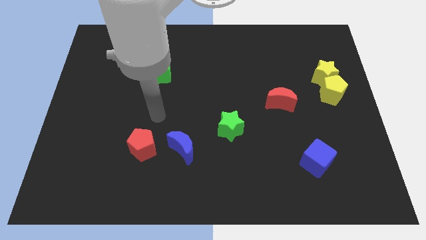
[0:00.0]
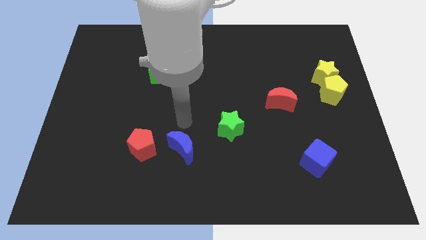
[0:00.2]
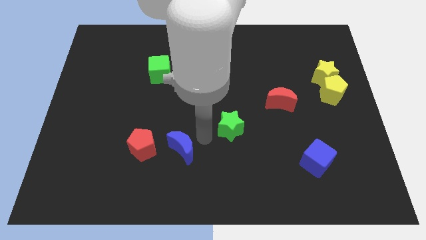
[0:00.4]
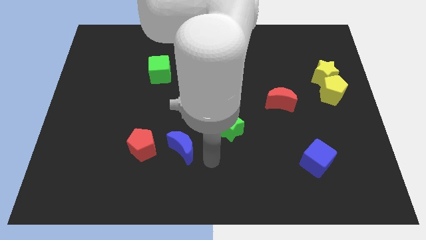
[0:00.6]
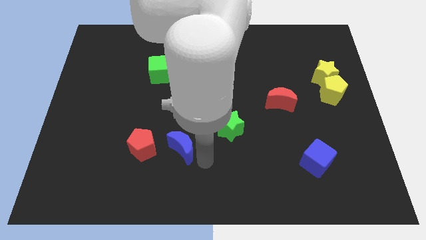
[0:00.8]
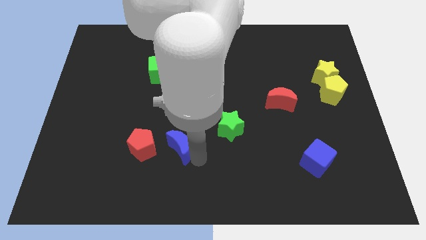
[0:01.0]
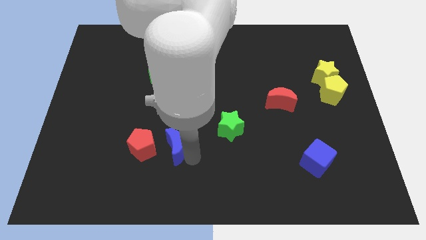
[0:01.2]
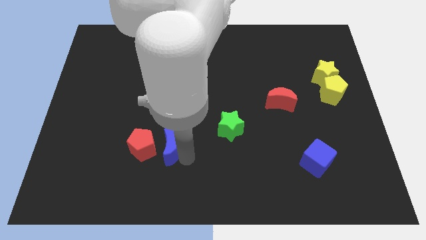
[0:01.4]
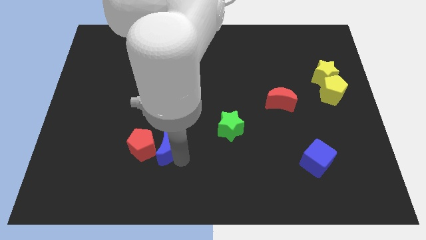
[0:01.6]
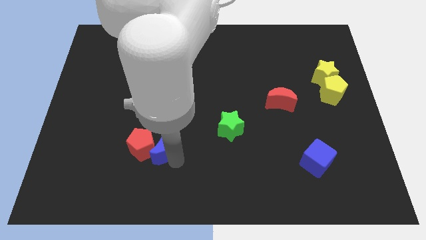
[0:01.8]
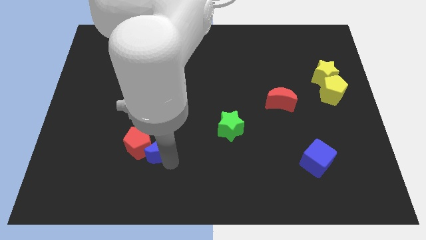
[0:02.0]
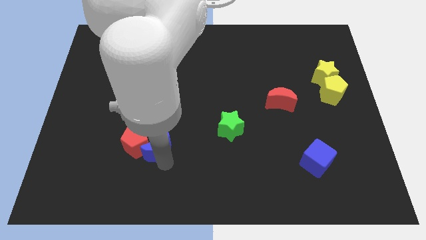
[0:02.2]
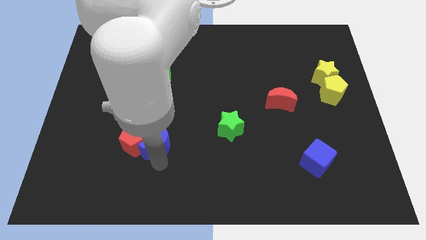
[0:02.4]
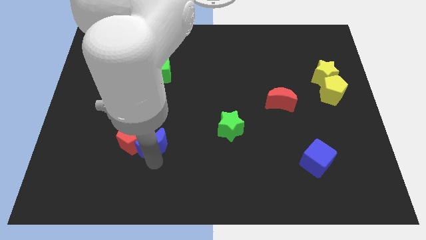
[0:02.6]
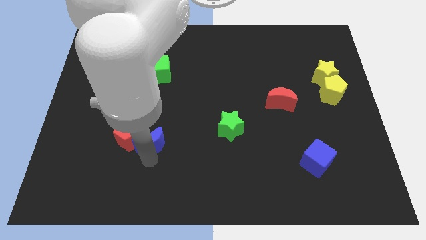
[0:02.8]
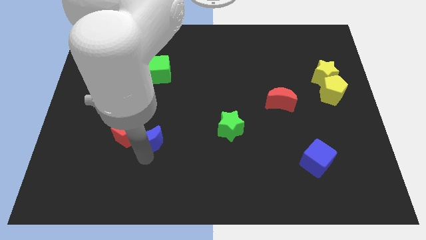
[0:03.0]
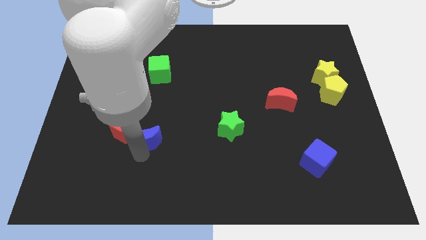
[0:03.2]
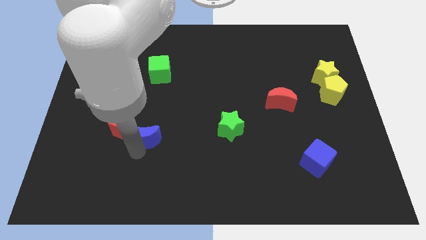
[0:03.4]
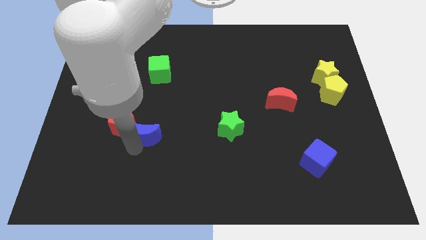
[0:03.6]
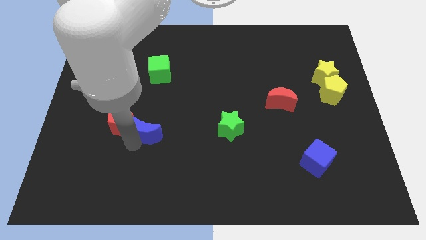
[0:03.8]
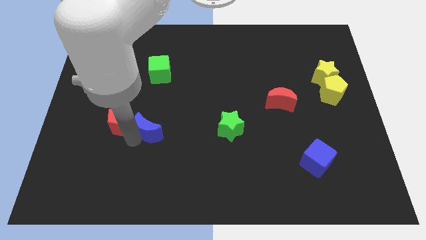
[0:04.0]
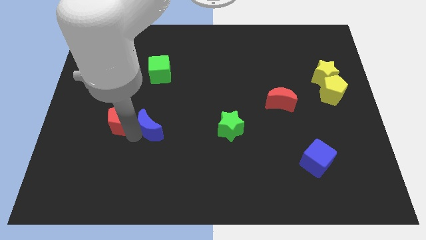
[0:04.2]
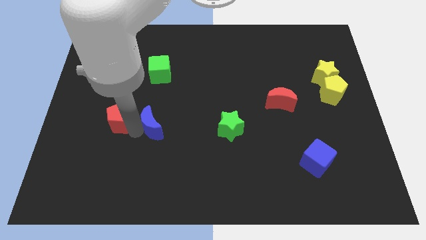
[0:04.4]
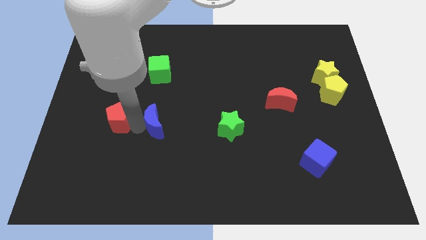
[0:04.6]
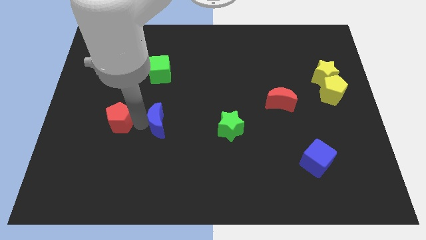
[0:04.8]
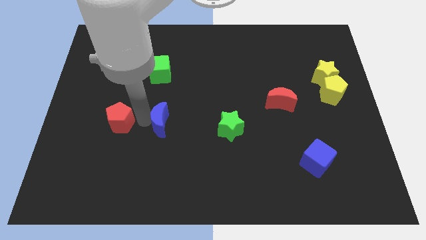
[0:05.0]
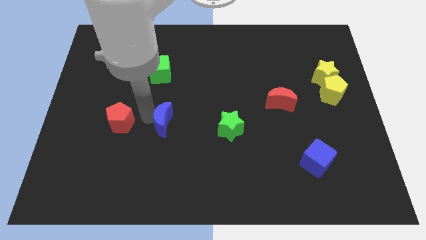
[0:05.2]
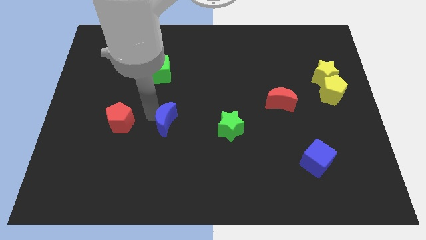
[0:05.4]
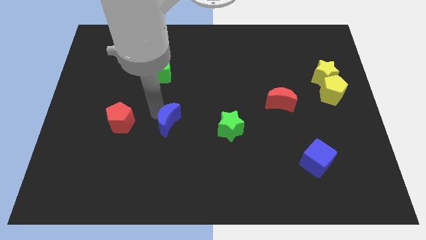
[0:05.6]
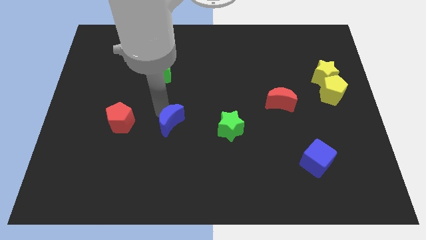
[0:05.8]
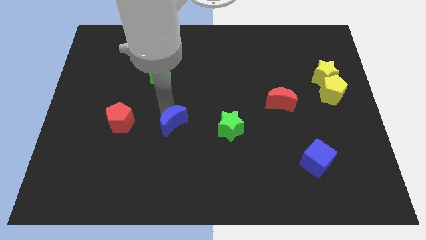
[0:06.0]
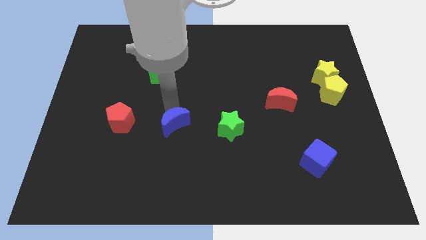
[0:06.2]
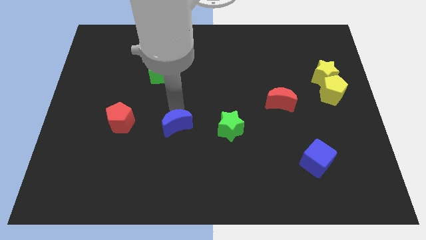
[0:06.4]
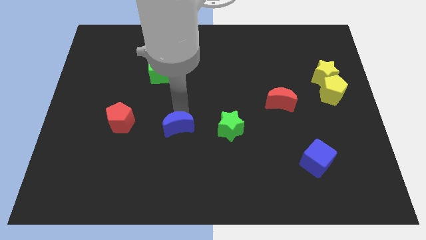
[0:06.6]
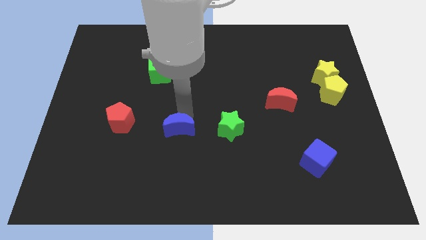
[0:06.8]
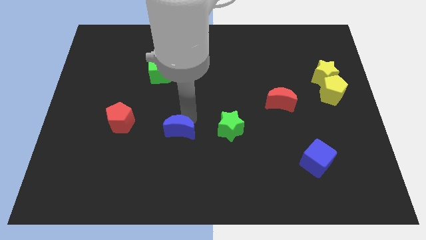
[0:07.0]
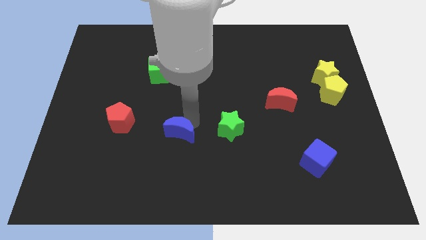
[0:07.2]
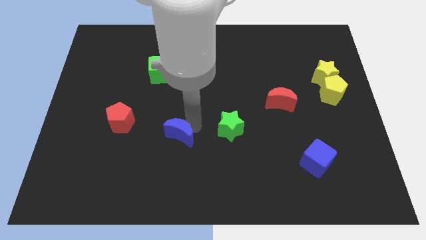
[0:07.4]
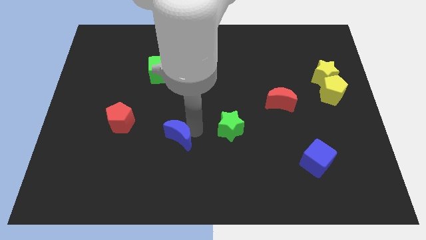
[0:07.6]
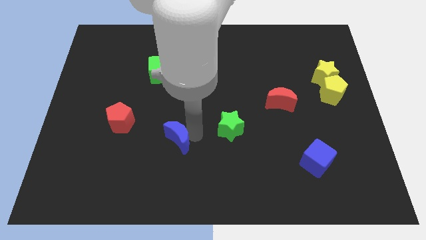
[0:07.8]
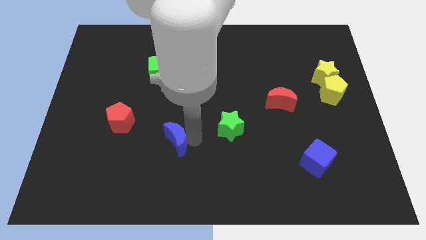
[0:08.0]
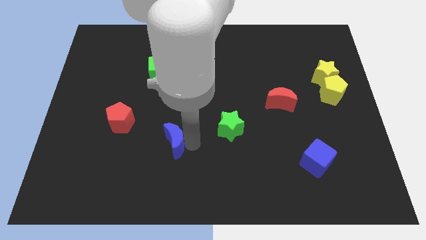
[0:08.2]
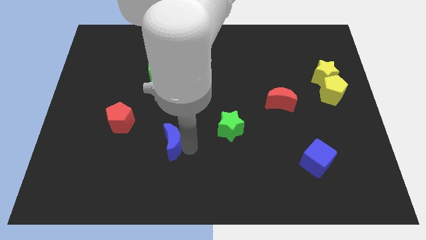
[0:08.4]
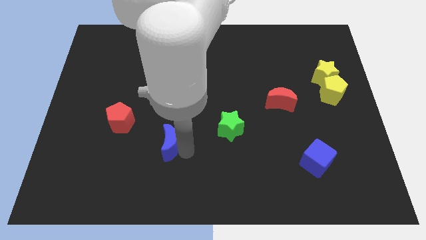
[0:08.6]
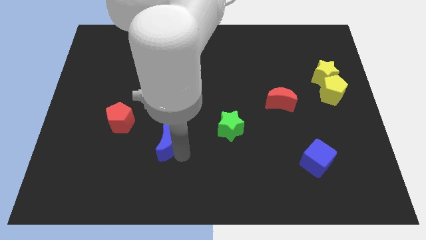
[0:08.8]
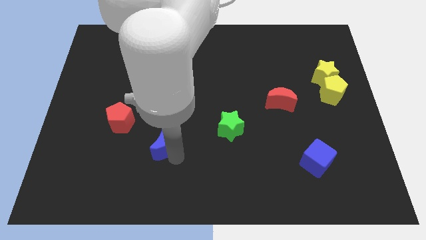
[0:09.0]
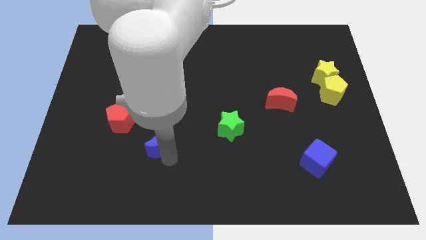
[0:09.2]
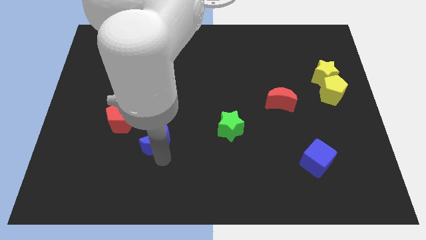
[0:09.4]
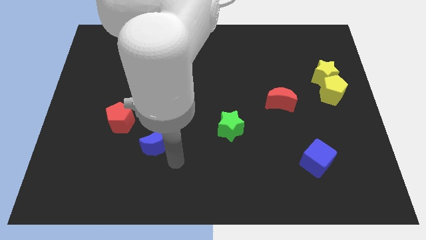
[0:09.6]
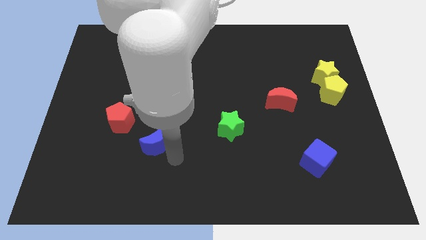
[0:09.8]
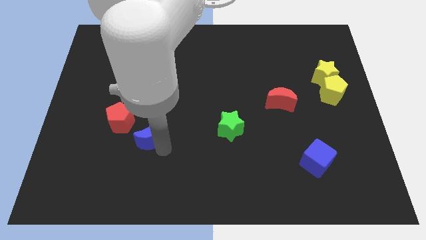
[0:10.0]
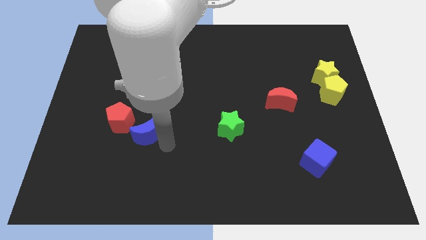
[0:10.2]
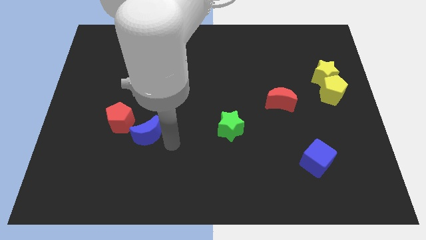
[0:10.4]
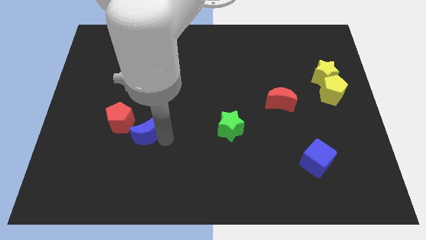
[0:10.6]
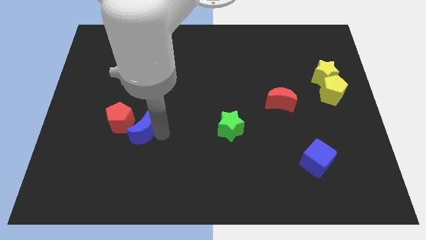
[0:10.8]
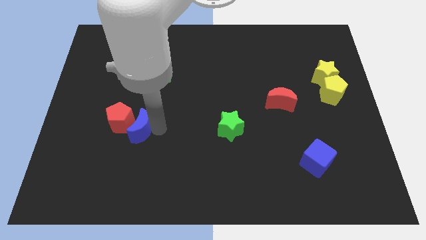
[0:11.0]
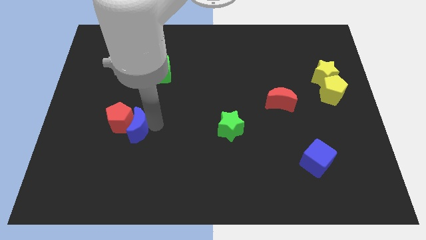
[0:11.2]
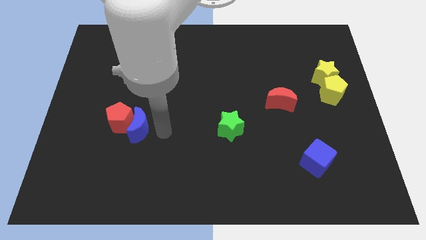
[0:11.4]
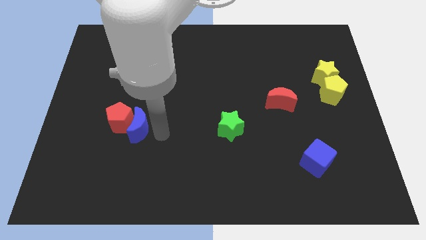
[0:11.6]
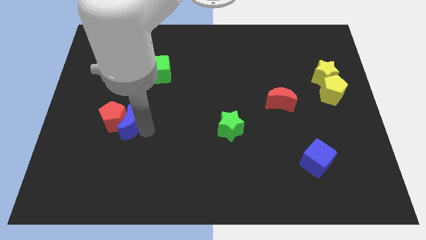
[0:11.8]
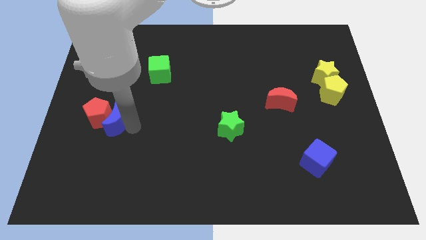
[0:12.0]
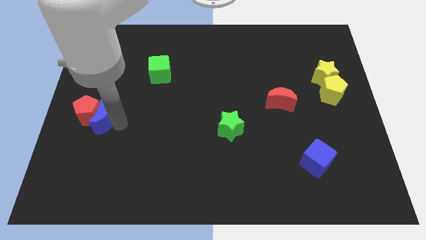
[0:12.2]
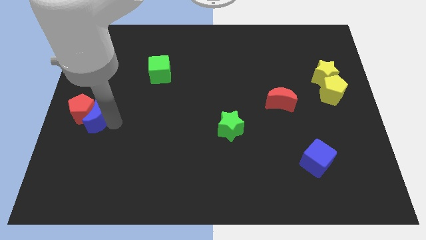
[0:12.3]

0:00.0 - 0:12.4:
slide the blue moon to the center left

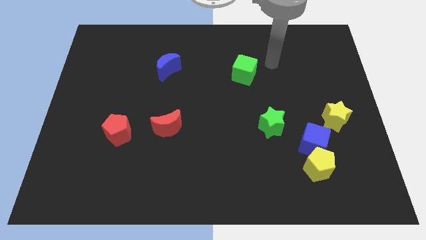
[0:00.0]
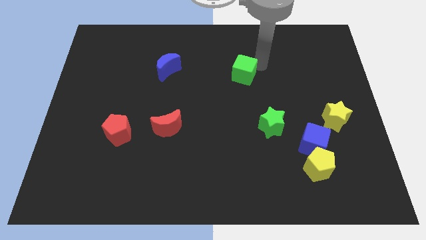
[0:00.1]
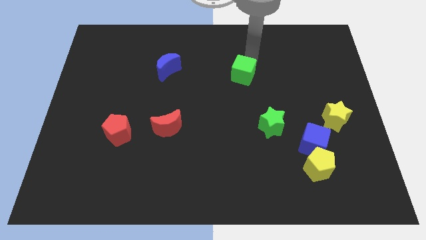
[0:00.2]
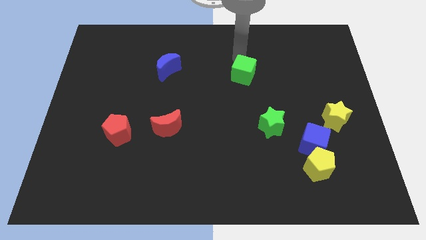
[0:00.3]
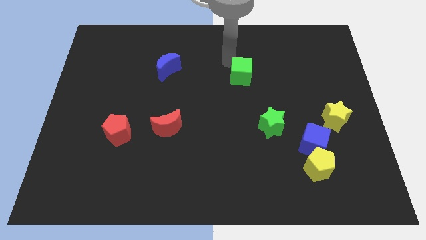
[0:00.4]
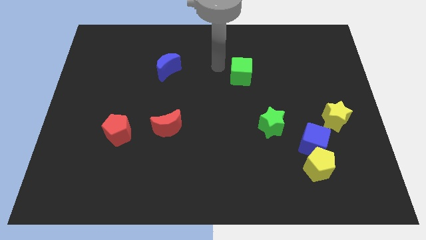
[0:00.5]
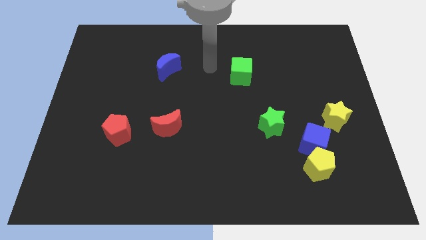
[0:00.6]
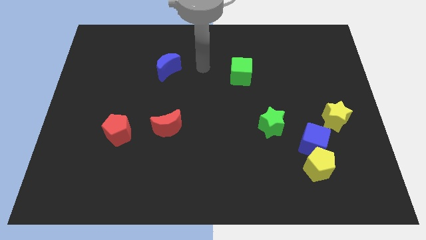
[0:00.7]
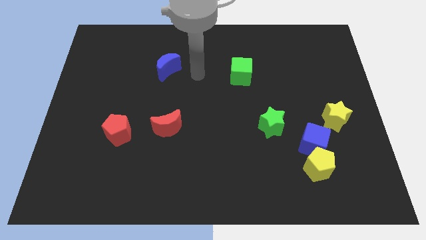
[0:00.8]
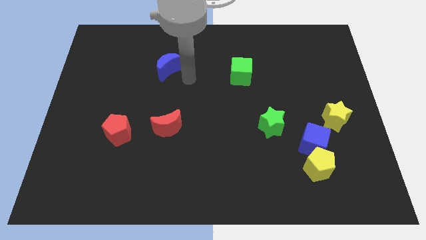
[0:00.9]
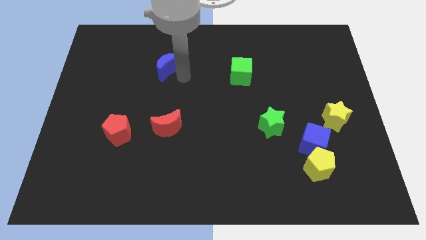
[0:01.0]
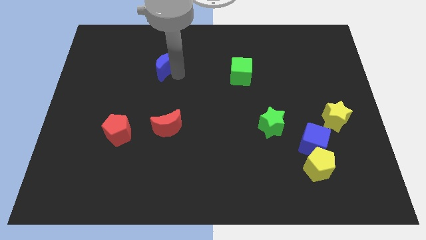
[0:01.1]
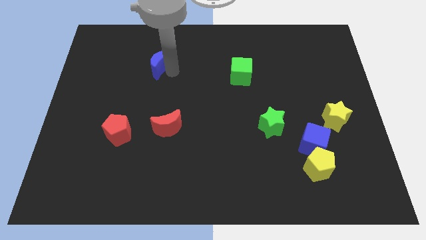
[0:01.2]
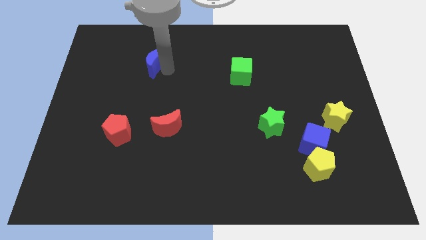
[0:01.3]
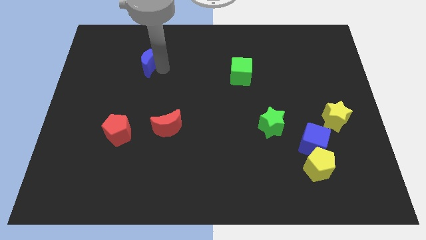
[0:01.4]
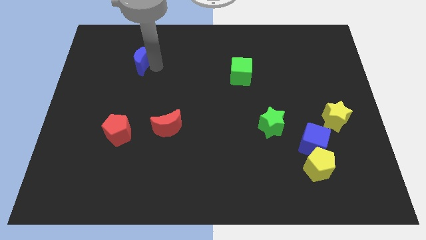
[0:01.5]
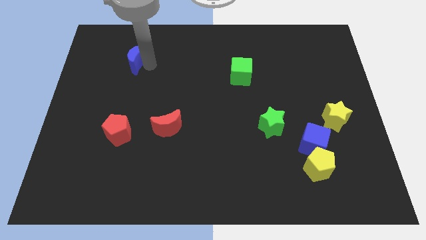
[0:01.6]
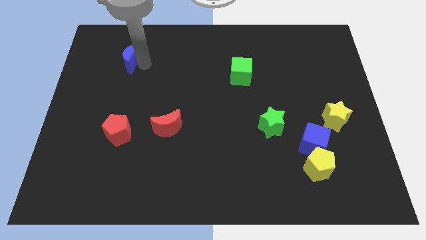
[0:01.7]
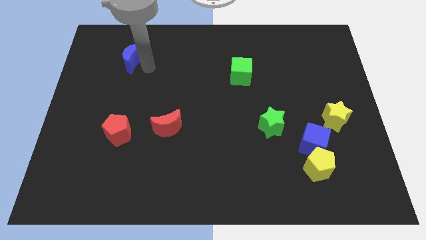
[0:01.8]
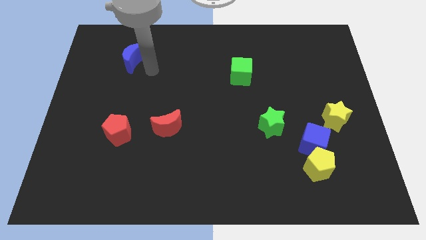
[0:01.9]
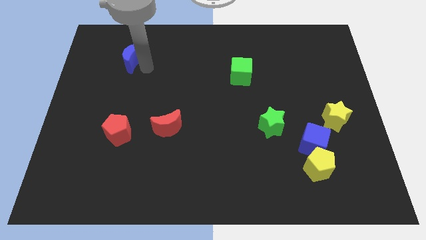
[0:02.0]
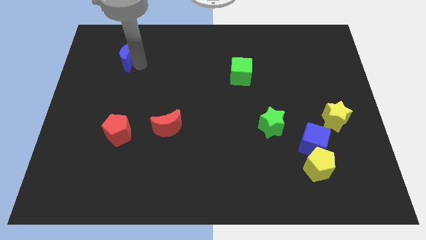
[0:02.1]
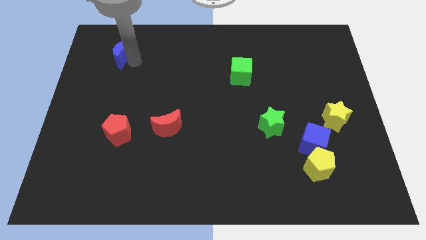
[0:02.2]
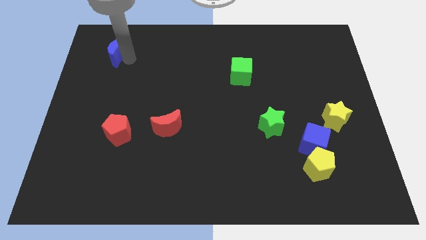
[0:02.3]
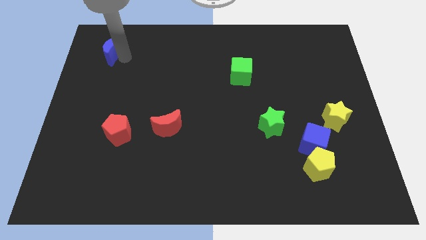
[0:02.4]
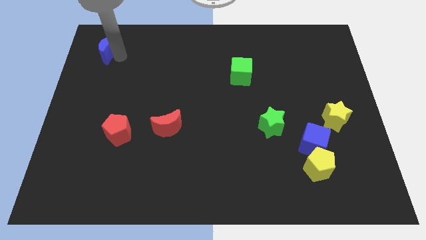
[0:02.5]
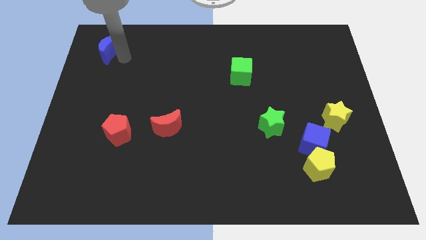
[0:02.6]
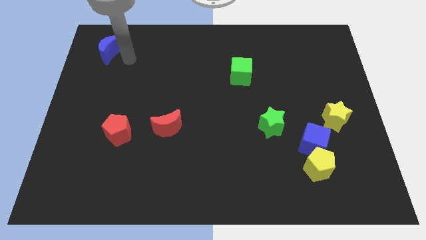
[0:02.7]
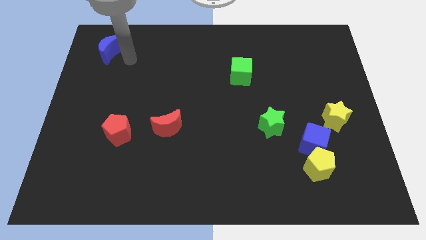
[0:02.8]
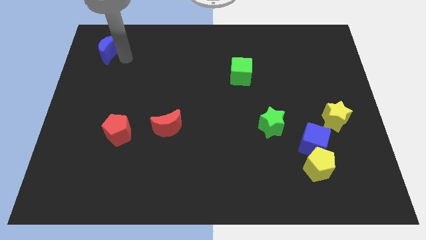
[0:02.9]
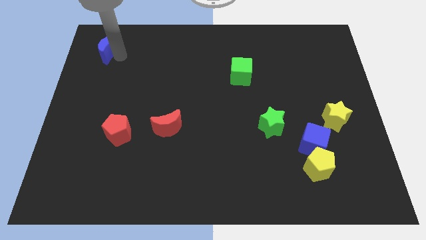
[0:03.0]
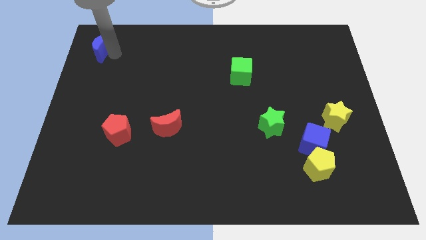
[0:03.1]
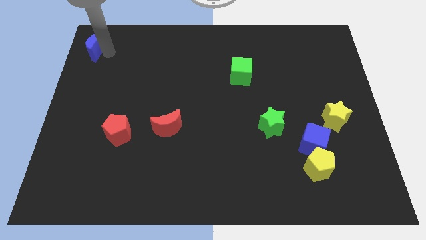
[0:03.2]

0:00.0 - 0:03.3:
put the blue moon to the top left corner
